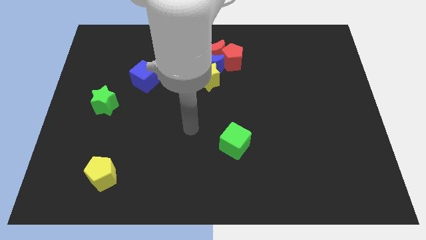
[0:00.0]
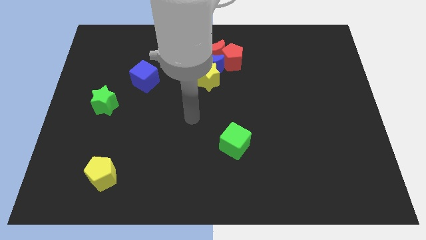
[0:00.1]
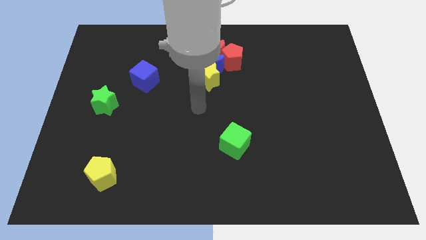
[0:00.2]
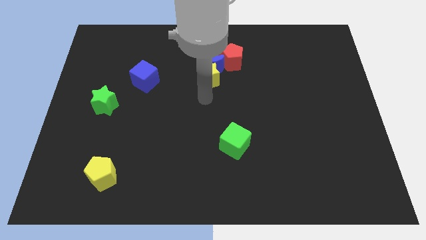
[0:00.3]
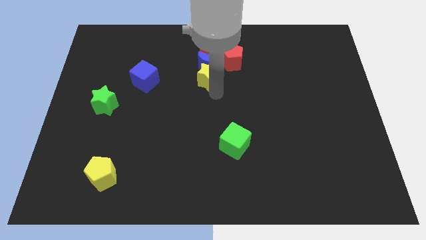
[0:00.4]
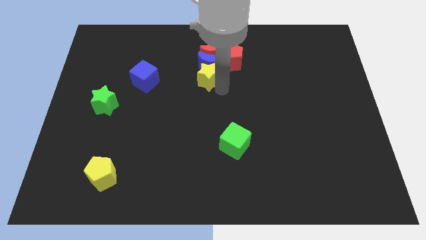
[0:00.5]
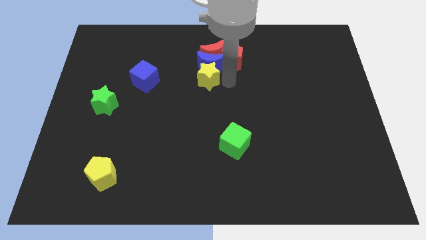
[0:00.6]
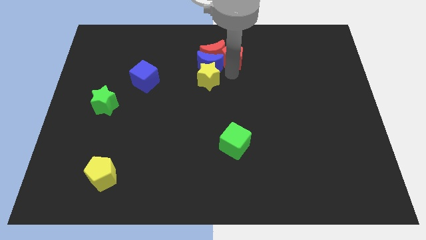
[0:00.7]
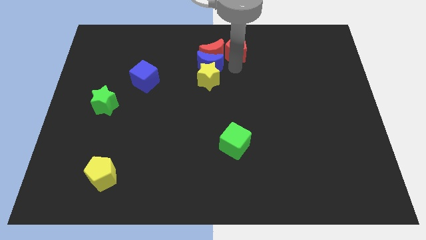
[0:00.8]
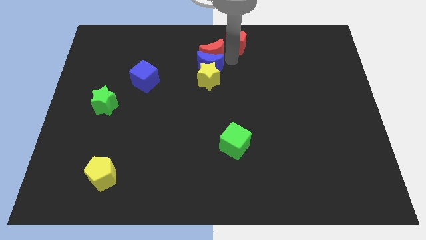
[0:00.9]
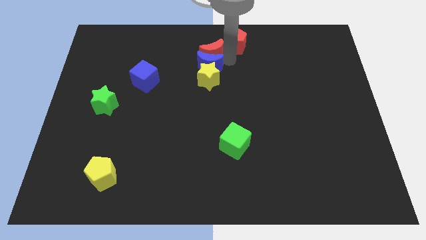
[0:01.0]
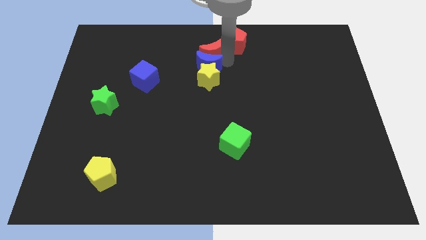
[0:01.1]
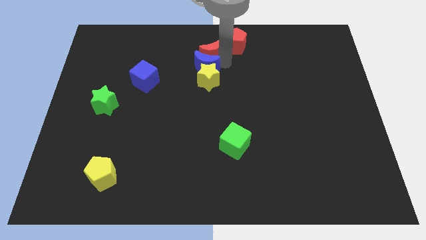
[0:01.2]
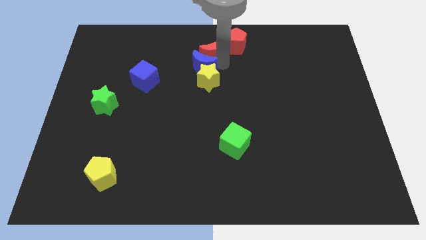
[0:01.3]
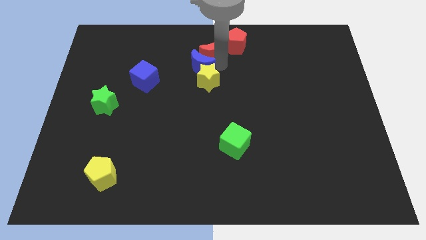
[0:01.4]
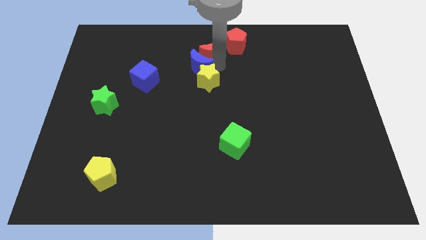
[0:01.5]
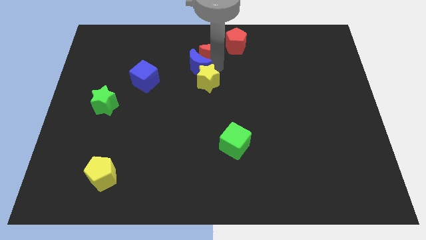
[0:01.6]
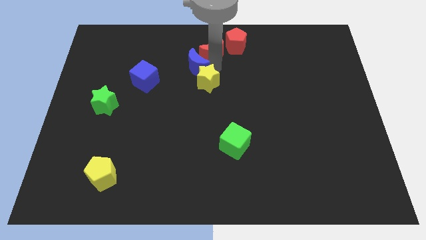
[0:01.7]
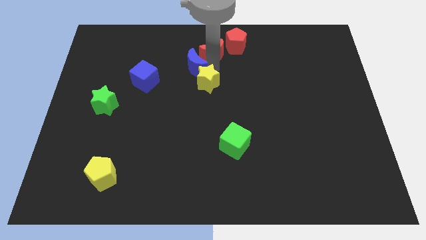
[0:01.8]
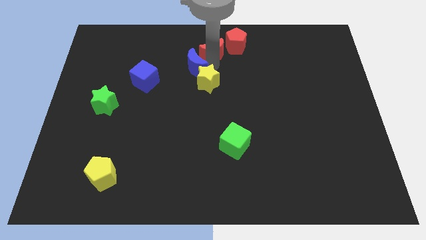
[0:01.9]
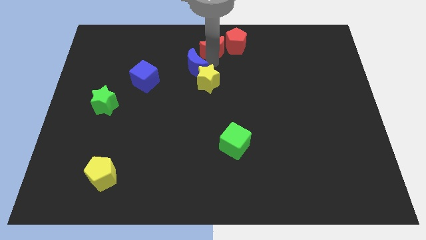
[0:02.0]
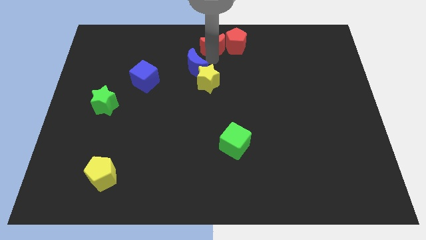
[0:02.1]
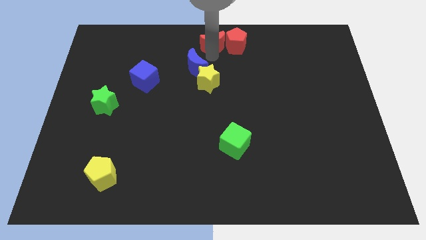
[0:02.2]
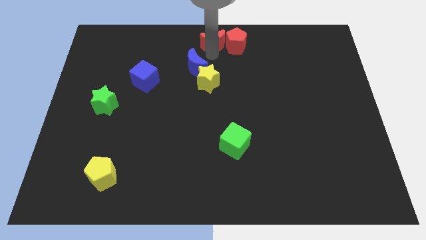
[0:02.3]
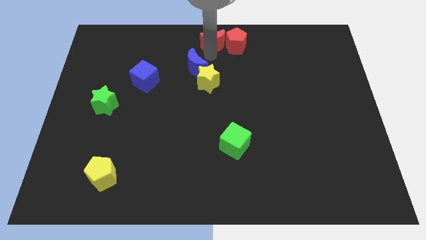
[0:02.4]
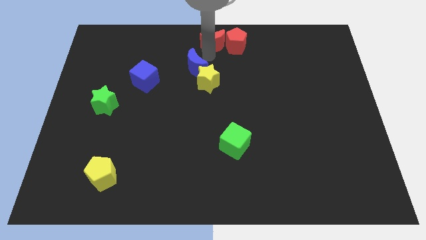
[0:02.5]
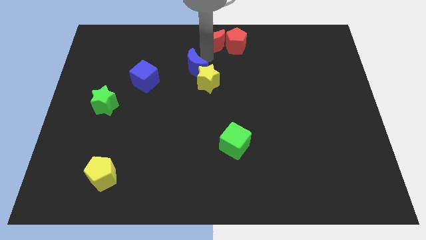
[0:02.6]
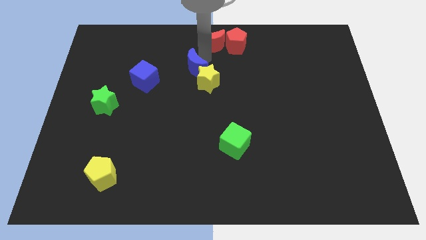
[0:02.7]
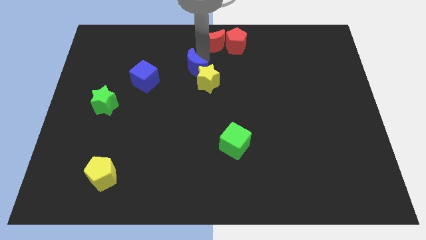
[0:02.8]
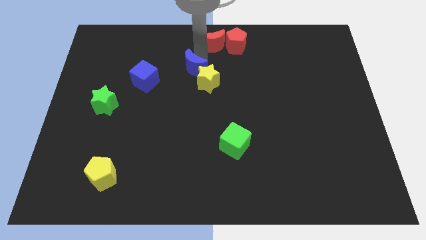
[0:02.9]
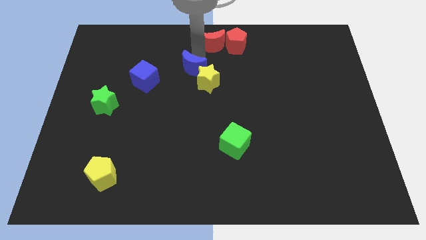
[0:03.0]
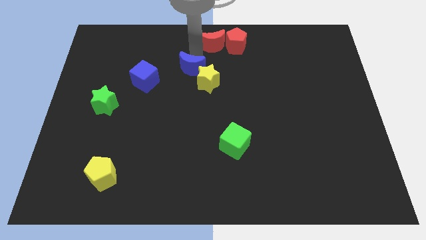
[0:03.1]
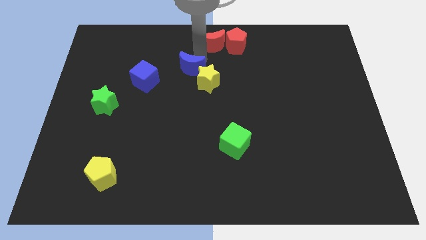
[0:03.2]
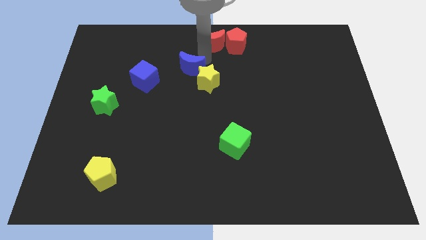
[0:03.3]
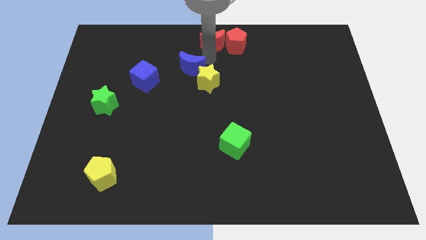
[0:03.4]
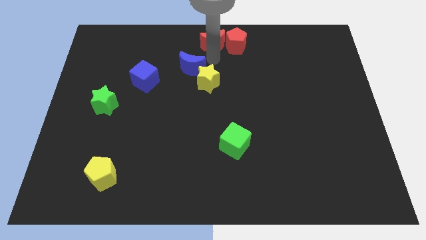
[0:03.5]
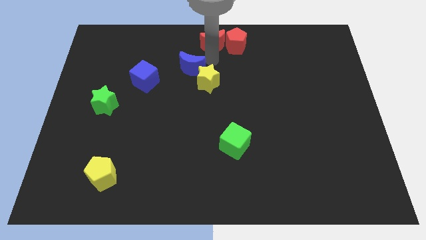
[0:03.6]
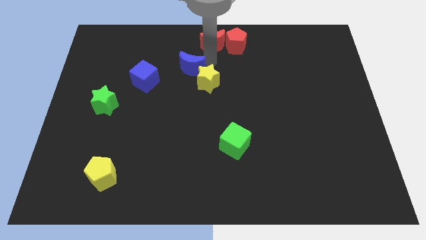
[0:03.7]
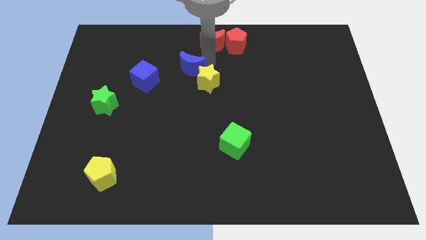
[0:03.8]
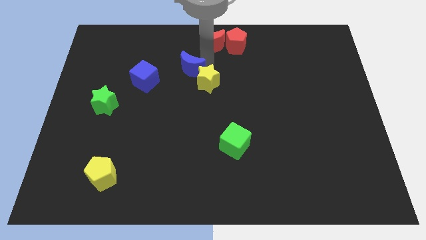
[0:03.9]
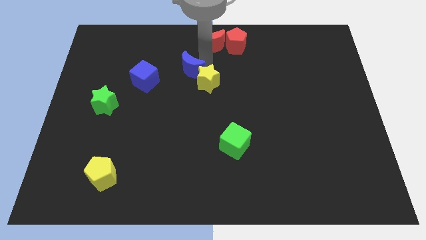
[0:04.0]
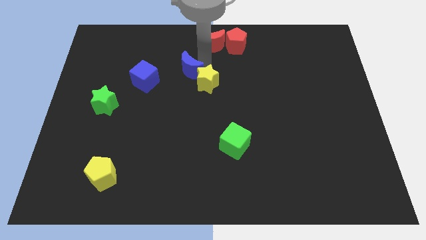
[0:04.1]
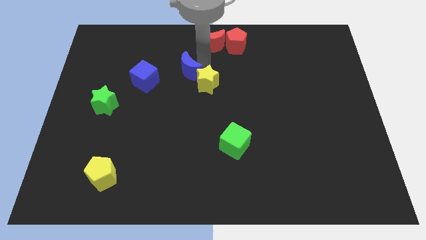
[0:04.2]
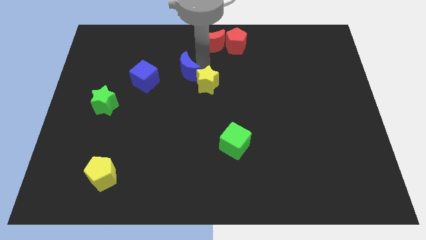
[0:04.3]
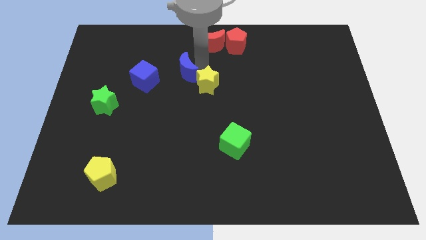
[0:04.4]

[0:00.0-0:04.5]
pull the blue moon apart from the red moon, yellow star, and red pentagon

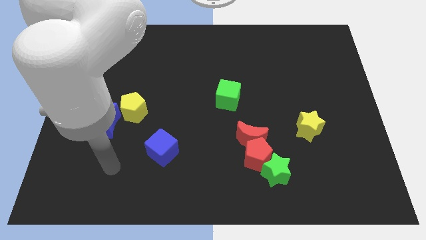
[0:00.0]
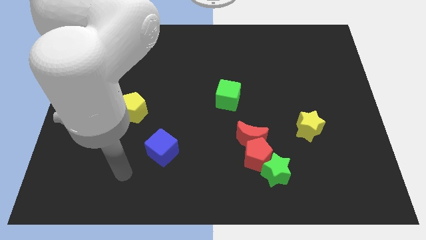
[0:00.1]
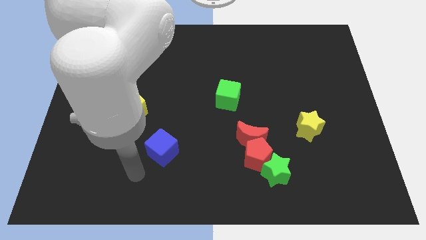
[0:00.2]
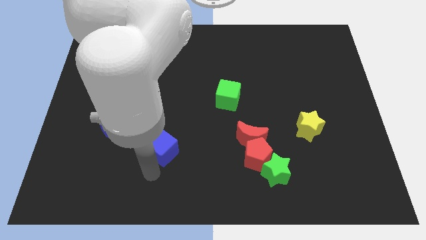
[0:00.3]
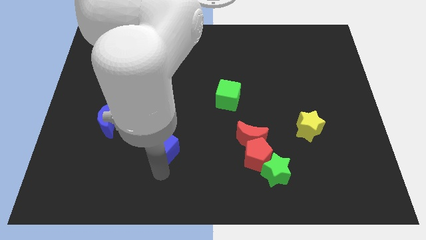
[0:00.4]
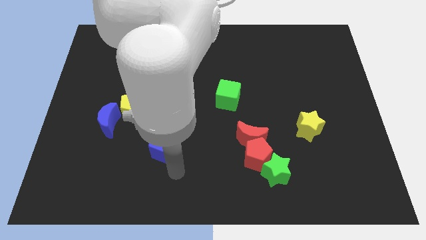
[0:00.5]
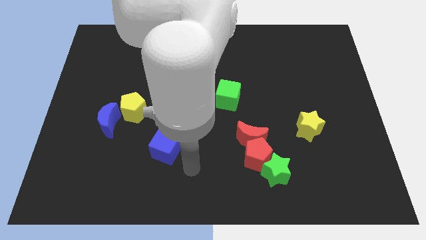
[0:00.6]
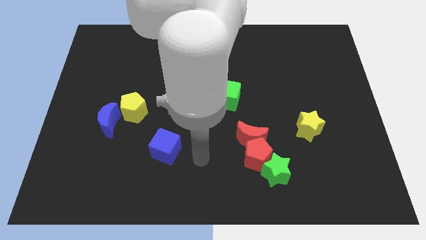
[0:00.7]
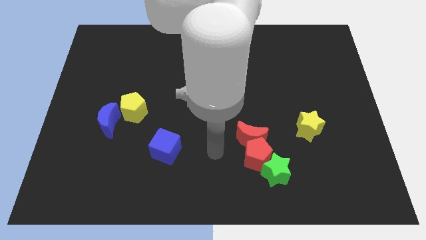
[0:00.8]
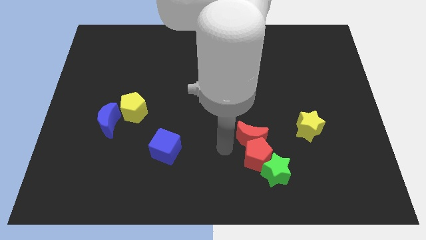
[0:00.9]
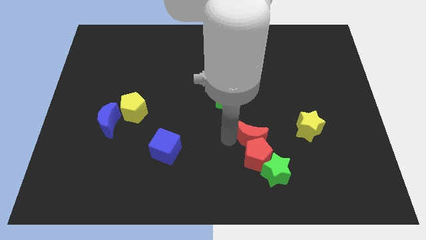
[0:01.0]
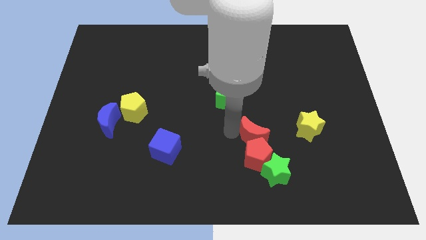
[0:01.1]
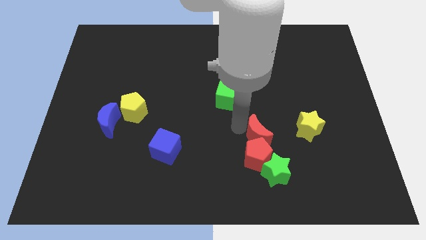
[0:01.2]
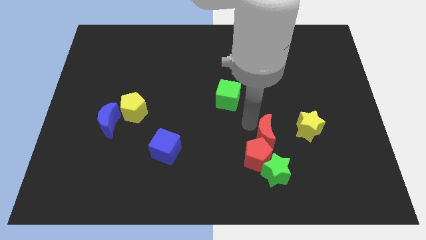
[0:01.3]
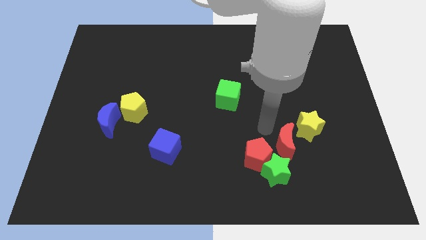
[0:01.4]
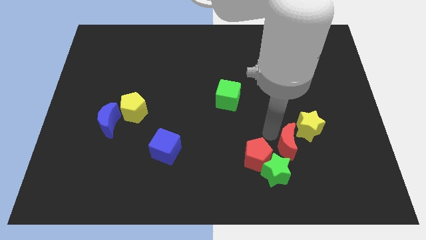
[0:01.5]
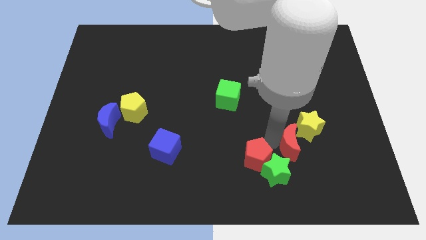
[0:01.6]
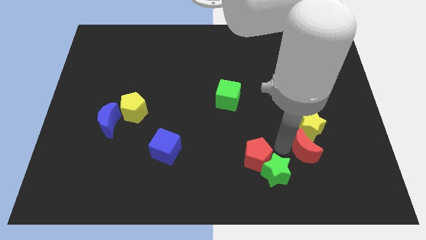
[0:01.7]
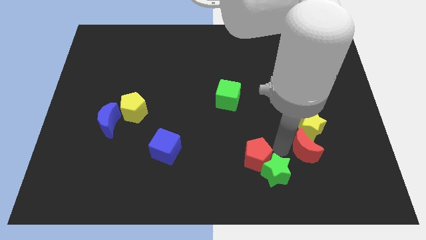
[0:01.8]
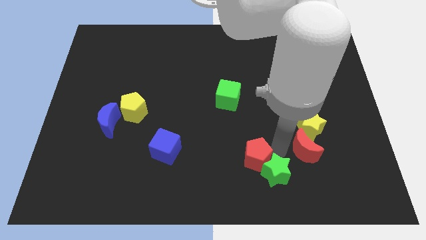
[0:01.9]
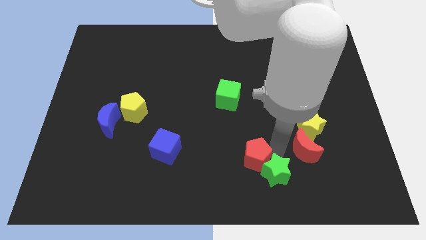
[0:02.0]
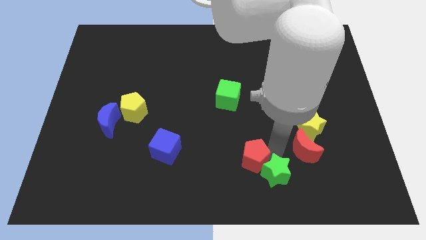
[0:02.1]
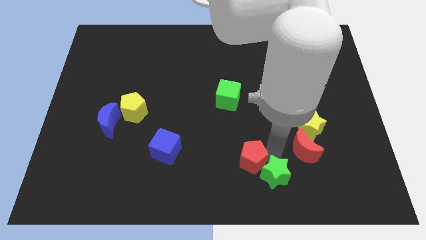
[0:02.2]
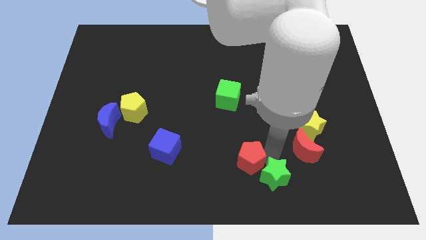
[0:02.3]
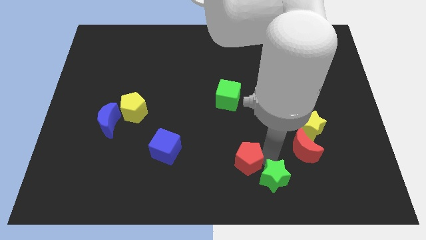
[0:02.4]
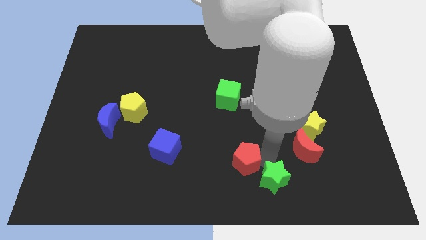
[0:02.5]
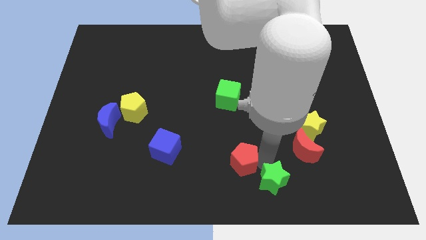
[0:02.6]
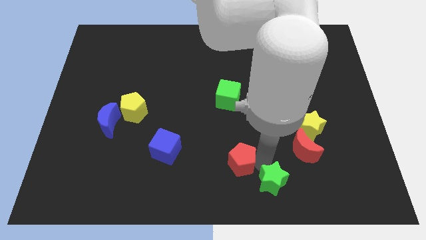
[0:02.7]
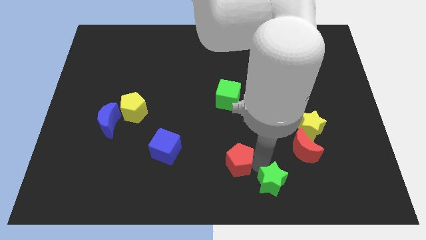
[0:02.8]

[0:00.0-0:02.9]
pull the red pentagon apart from the red moon and green star

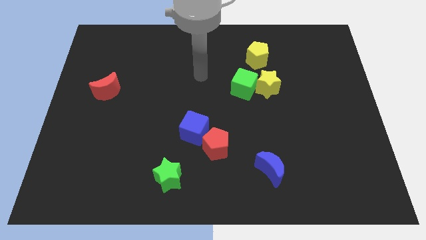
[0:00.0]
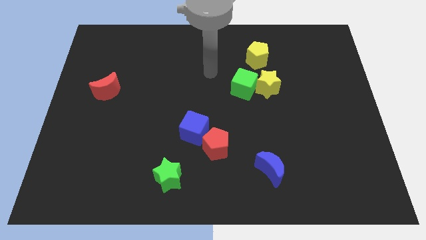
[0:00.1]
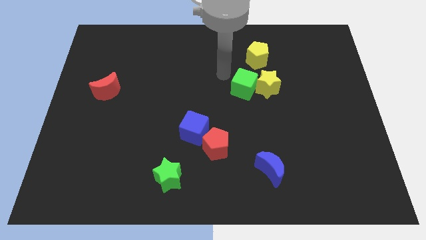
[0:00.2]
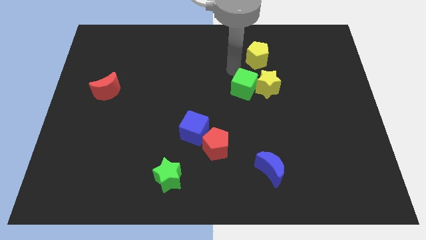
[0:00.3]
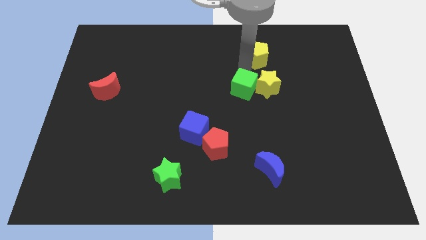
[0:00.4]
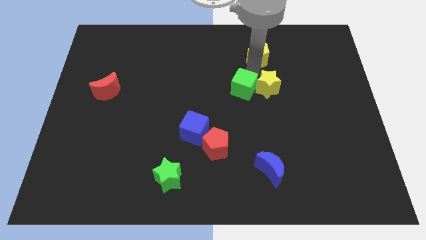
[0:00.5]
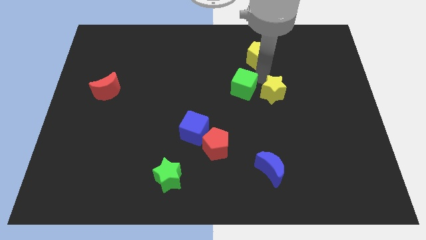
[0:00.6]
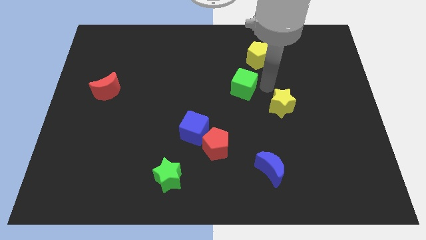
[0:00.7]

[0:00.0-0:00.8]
move the green cube away from the yellow star

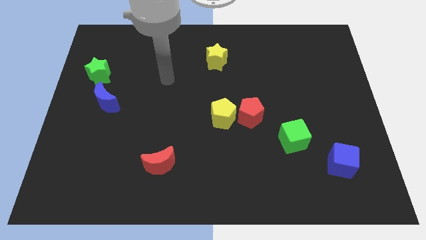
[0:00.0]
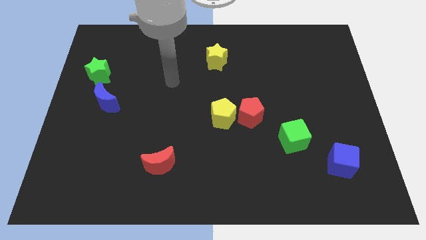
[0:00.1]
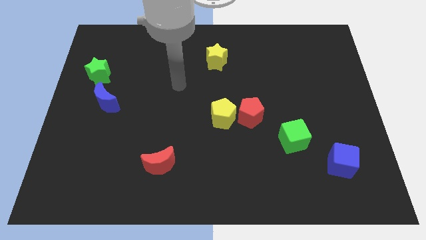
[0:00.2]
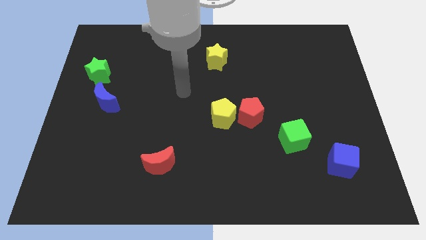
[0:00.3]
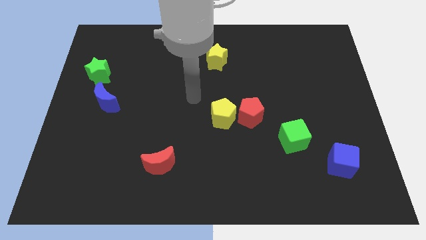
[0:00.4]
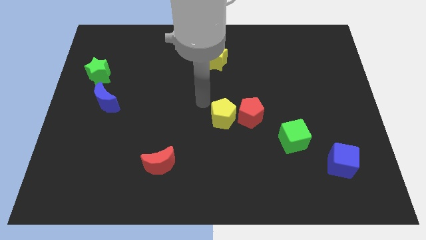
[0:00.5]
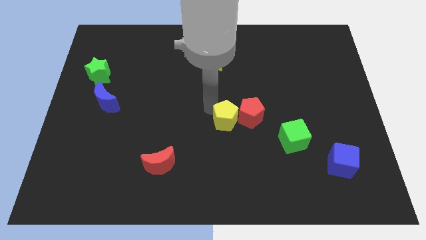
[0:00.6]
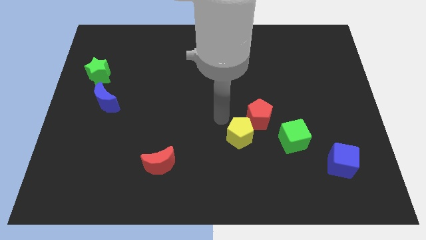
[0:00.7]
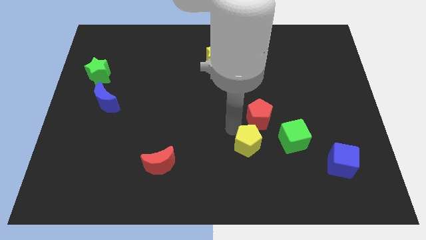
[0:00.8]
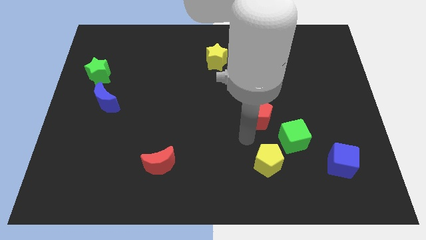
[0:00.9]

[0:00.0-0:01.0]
move the red pentagon away from the yellow pentagon
